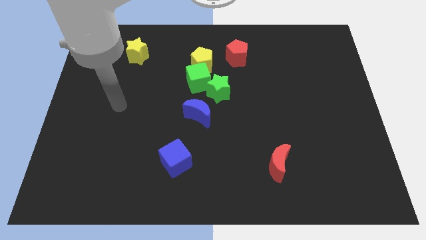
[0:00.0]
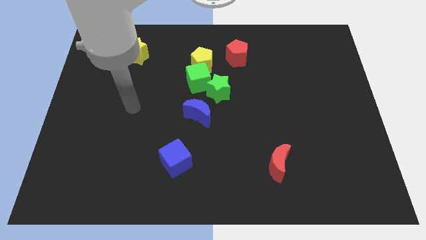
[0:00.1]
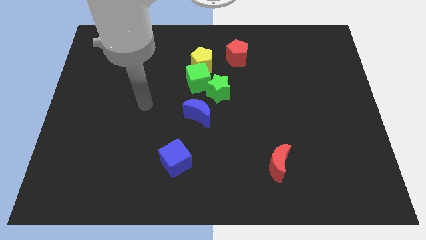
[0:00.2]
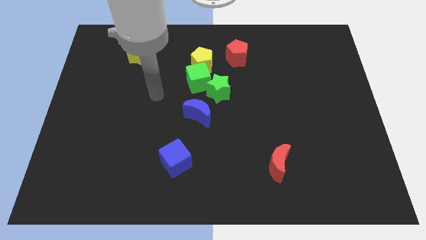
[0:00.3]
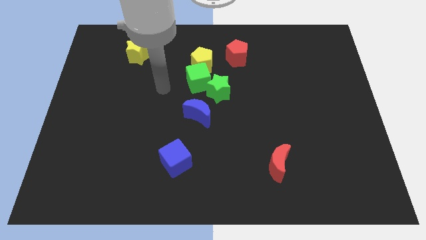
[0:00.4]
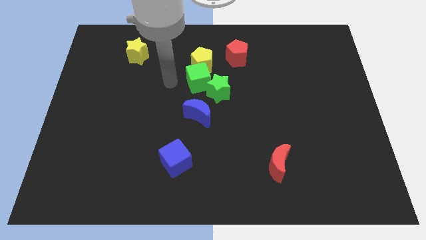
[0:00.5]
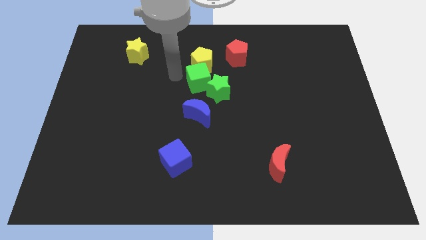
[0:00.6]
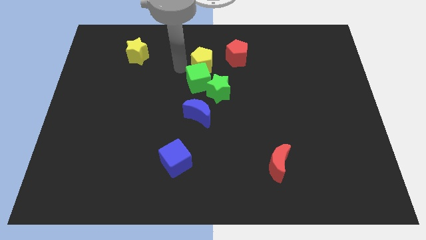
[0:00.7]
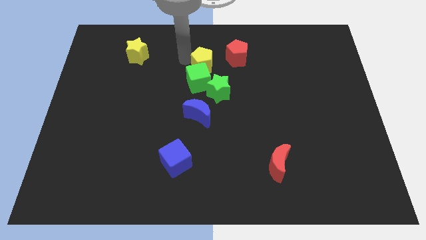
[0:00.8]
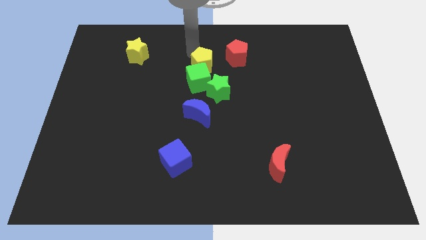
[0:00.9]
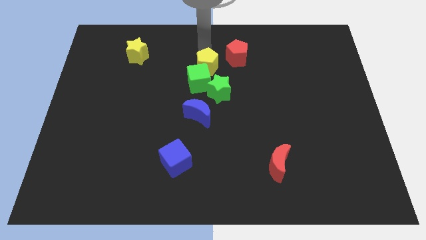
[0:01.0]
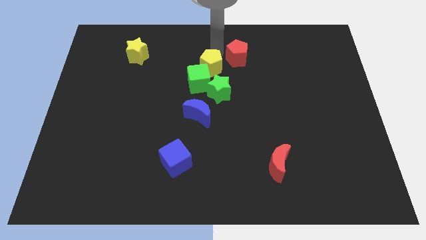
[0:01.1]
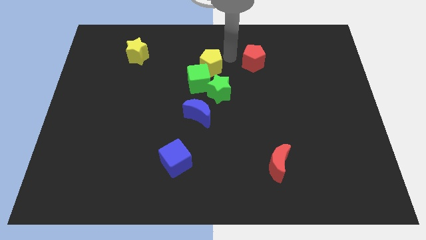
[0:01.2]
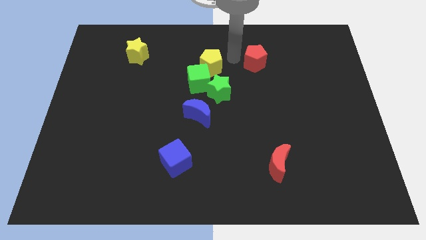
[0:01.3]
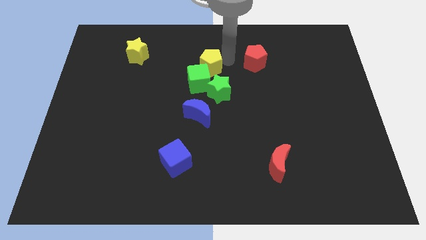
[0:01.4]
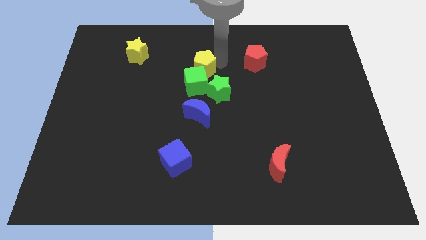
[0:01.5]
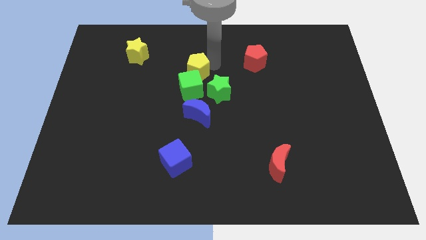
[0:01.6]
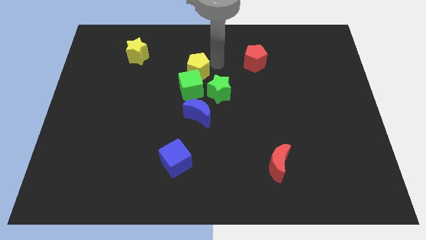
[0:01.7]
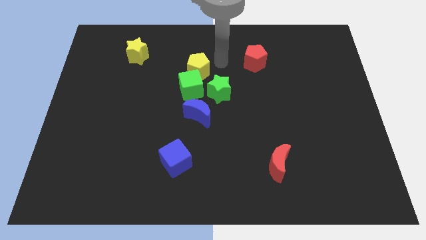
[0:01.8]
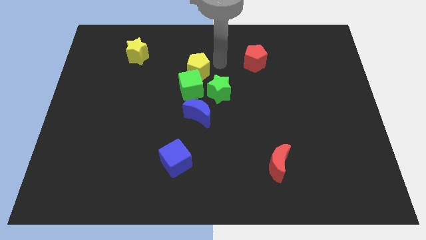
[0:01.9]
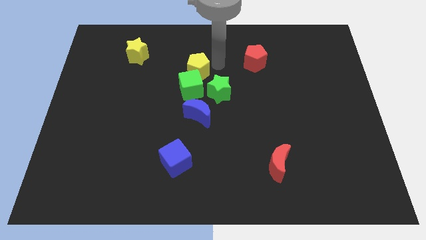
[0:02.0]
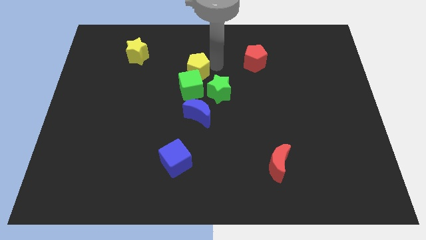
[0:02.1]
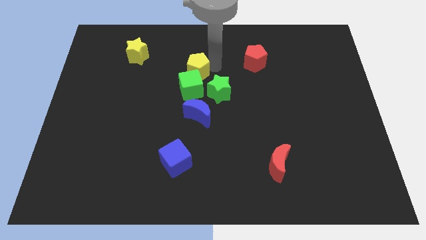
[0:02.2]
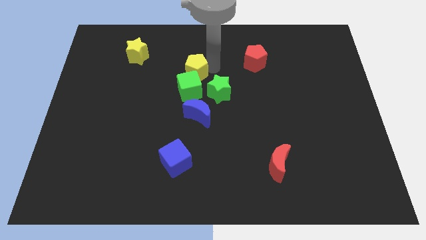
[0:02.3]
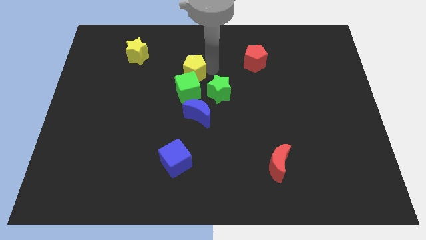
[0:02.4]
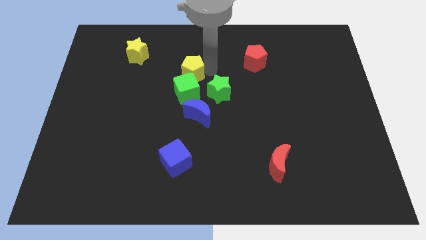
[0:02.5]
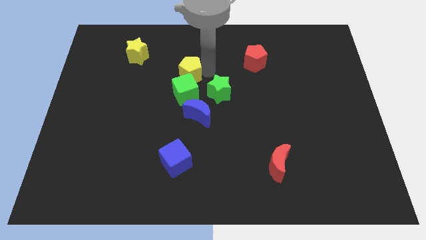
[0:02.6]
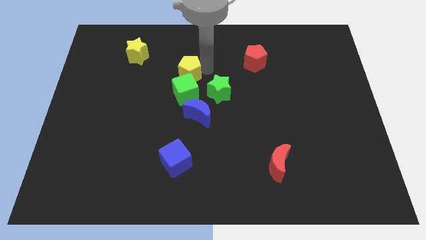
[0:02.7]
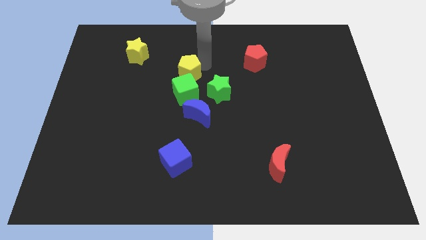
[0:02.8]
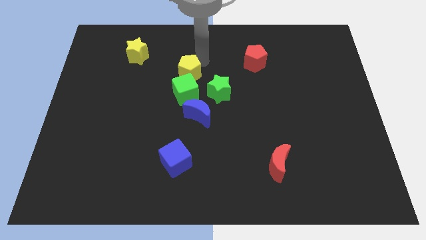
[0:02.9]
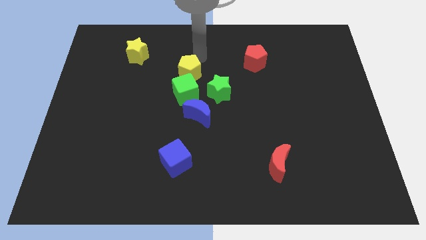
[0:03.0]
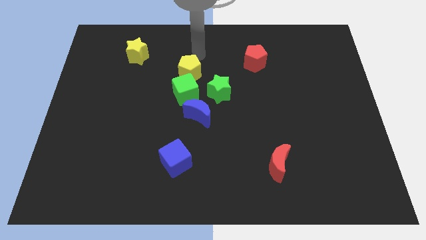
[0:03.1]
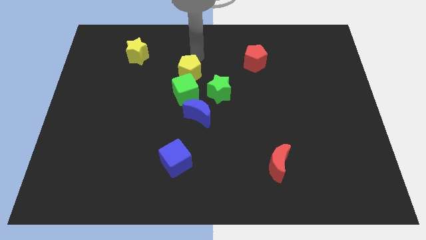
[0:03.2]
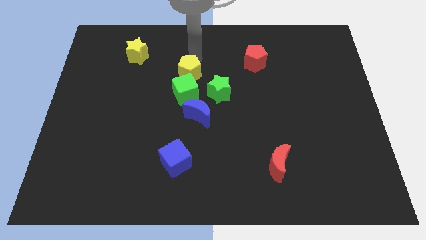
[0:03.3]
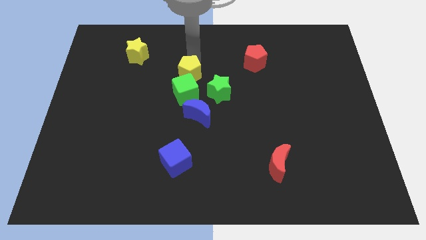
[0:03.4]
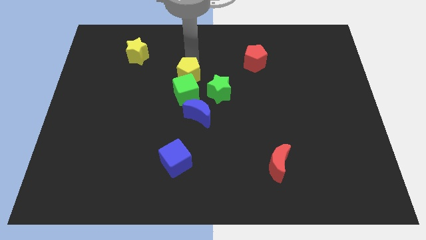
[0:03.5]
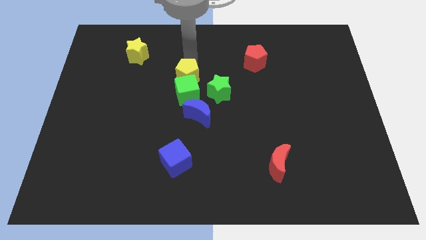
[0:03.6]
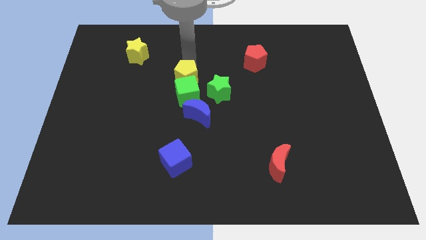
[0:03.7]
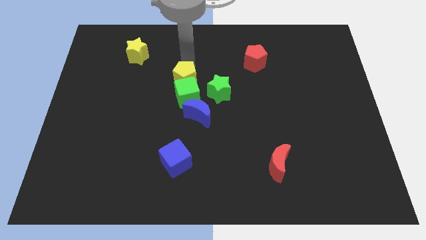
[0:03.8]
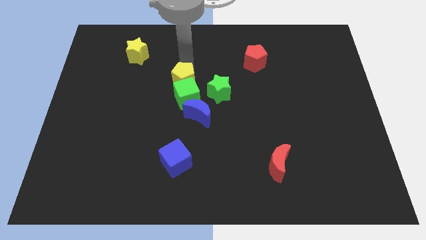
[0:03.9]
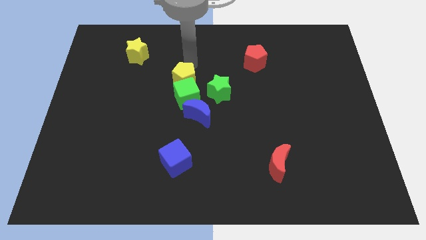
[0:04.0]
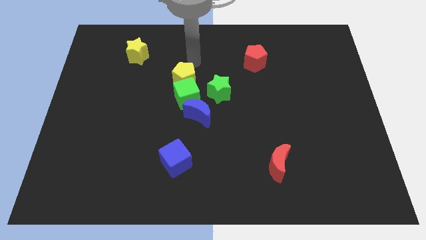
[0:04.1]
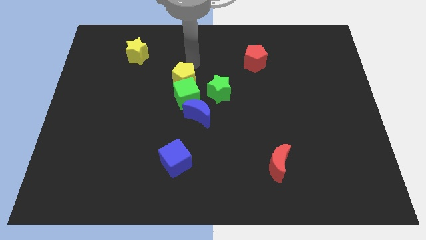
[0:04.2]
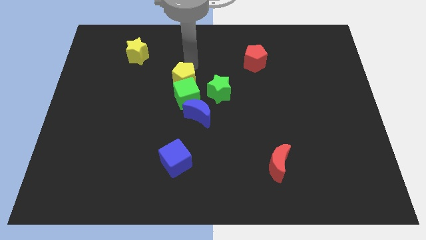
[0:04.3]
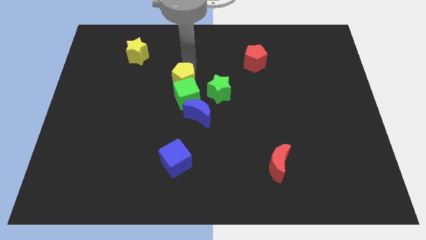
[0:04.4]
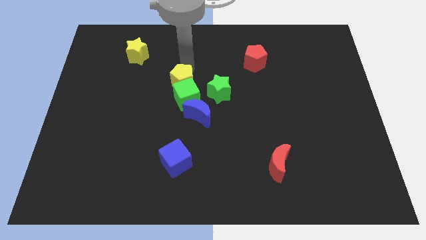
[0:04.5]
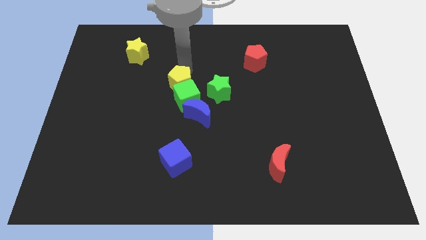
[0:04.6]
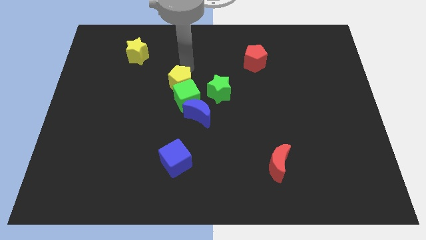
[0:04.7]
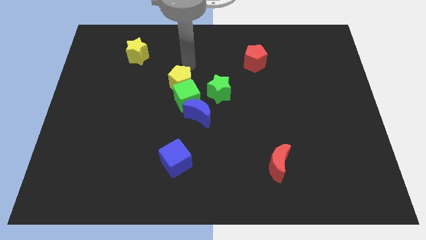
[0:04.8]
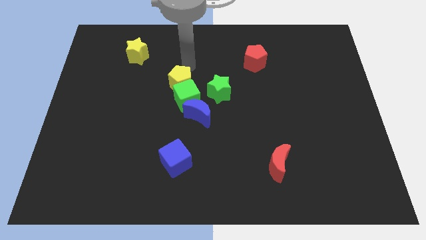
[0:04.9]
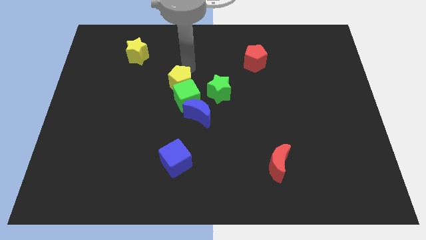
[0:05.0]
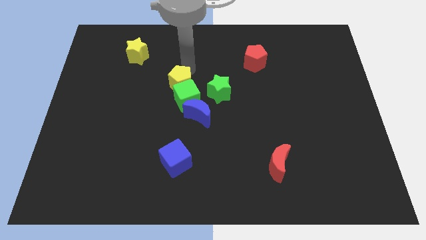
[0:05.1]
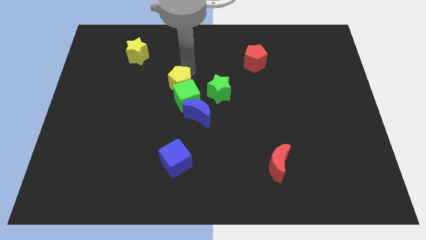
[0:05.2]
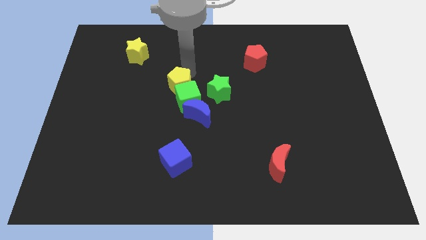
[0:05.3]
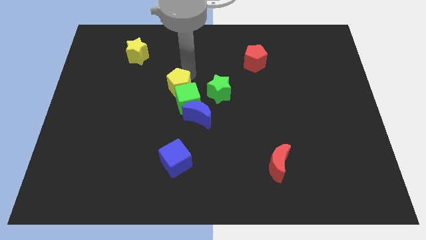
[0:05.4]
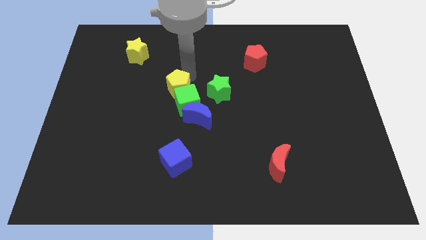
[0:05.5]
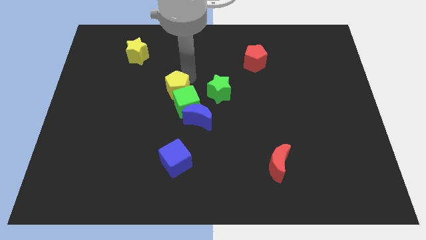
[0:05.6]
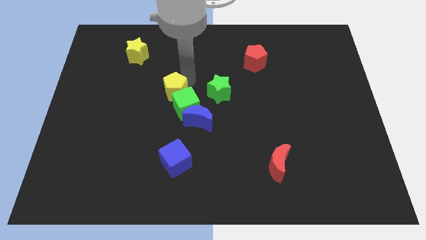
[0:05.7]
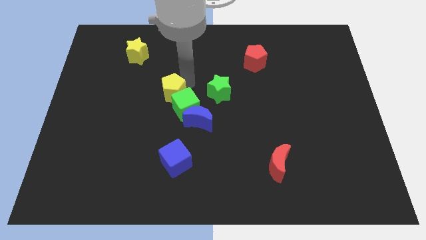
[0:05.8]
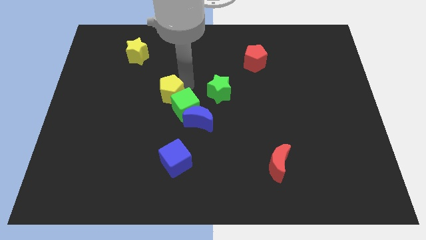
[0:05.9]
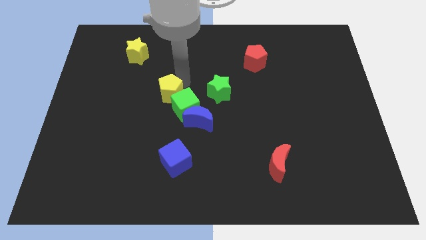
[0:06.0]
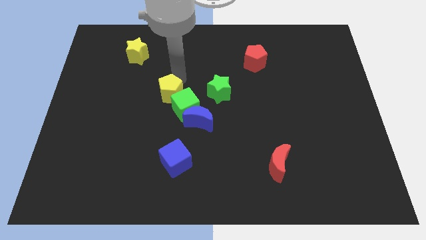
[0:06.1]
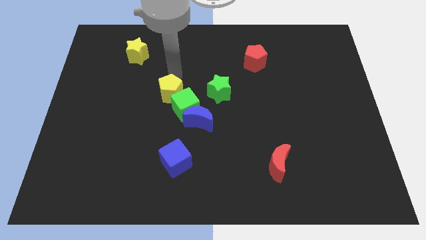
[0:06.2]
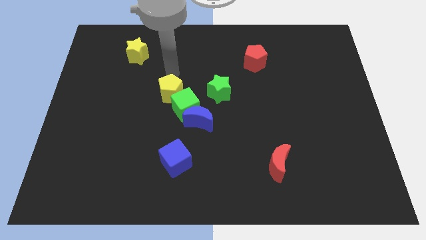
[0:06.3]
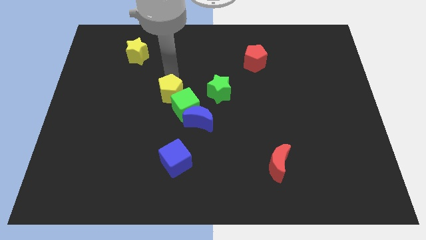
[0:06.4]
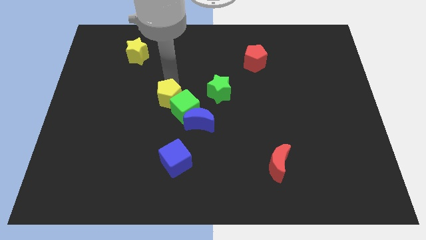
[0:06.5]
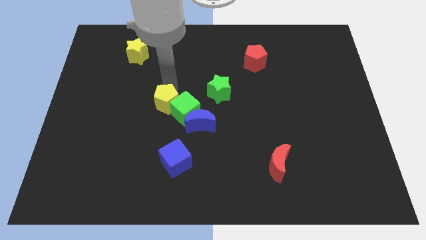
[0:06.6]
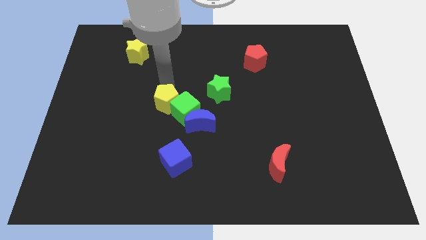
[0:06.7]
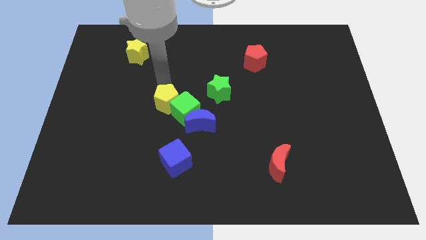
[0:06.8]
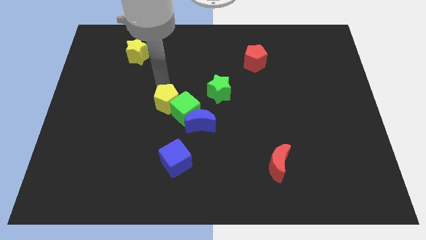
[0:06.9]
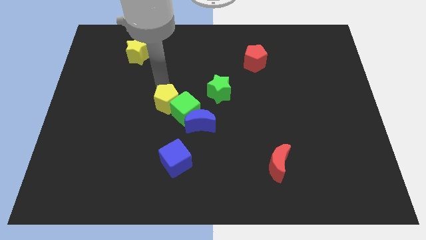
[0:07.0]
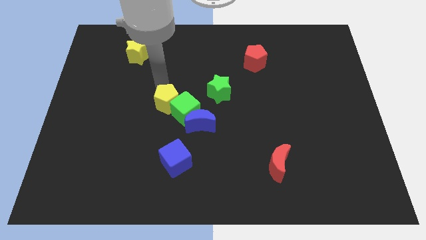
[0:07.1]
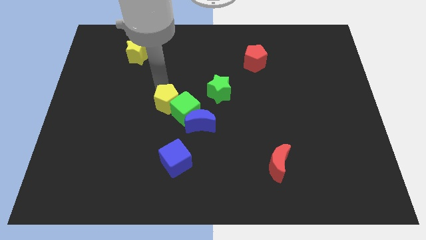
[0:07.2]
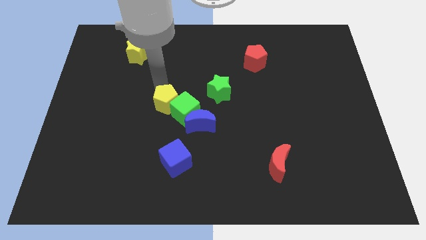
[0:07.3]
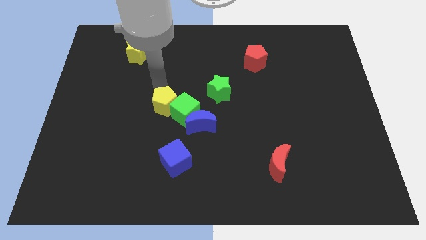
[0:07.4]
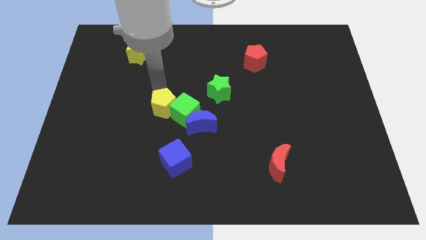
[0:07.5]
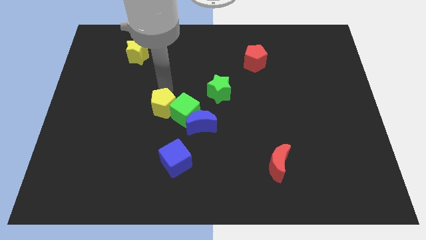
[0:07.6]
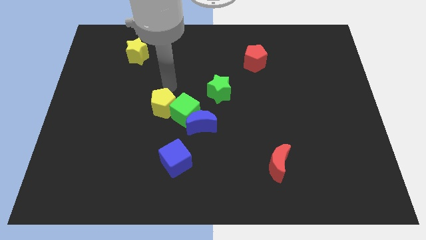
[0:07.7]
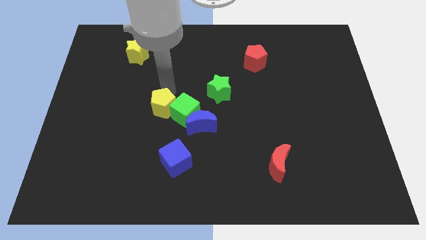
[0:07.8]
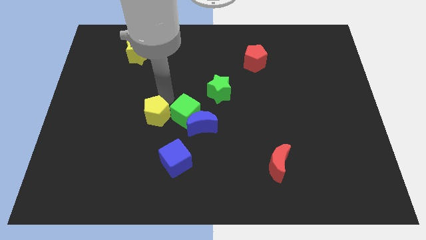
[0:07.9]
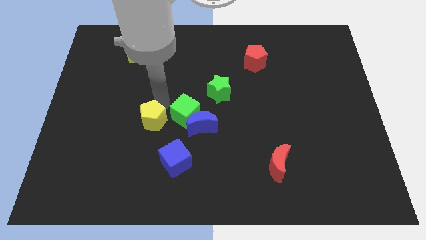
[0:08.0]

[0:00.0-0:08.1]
move the yellow pentagon to the top left of the blue cube
